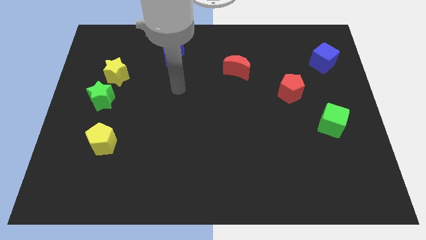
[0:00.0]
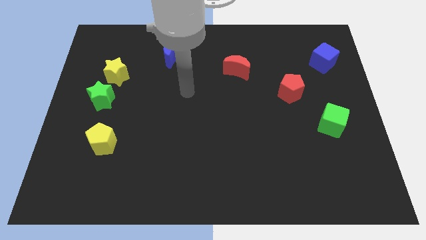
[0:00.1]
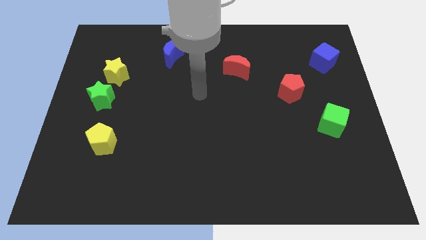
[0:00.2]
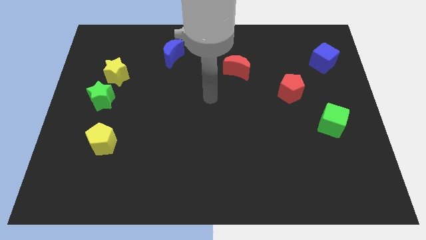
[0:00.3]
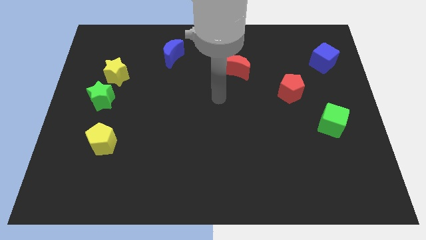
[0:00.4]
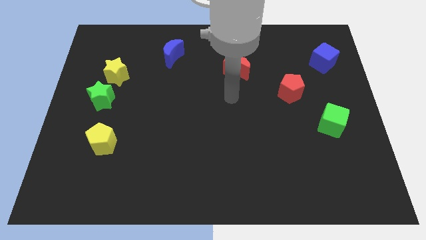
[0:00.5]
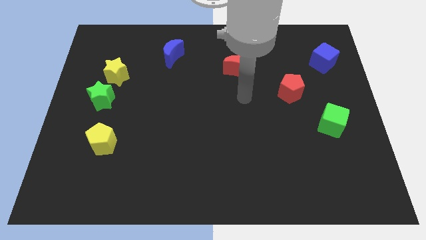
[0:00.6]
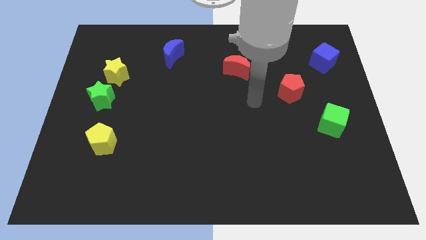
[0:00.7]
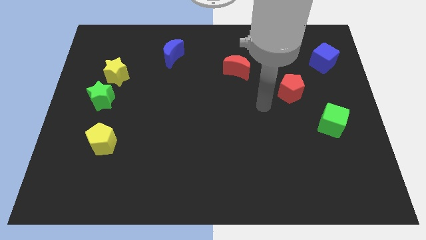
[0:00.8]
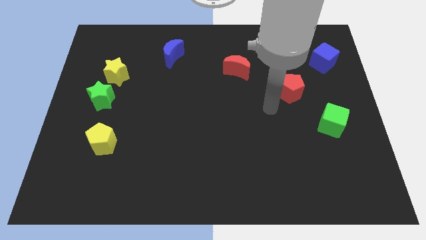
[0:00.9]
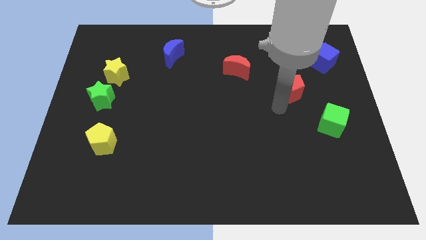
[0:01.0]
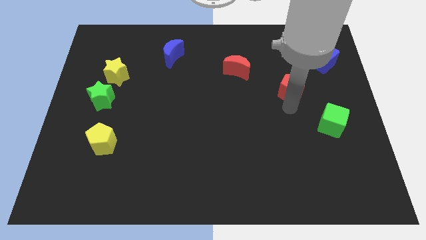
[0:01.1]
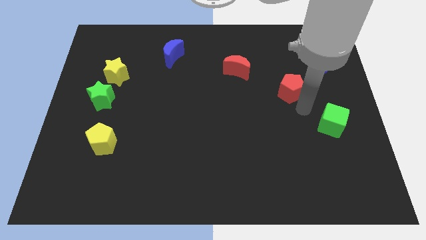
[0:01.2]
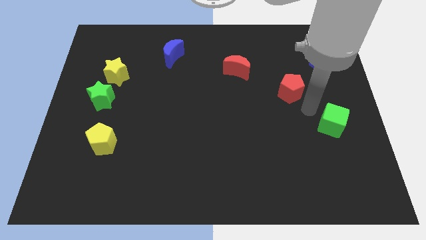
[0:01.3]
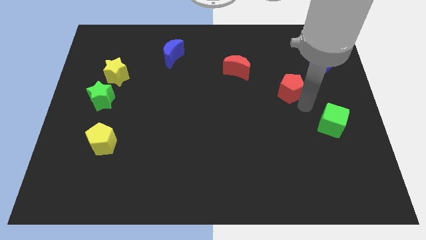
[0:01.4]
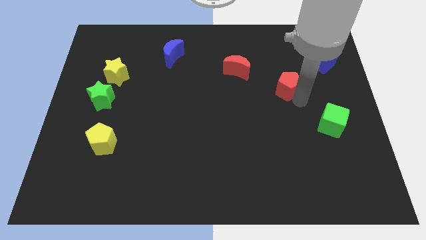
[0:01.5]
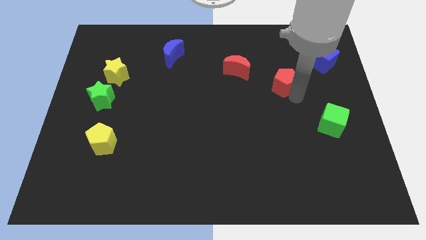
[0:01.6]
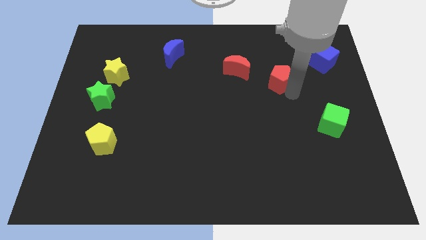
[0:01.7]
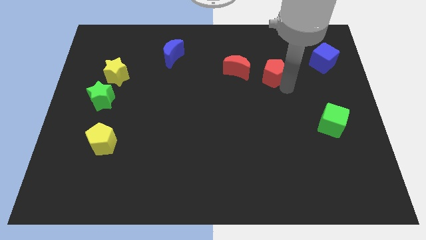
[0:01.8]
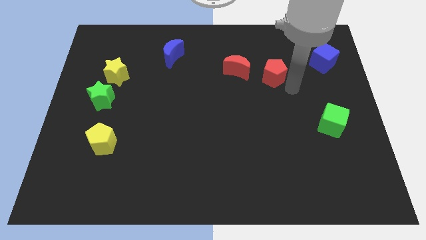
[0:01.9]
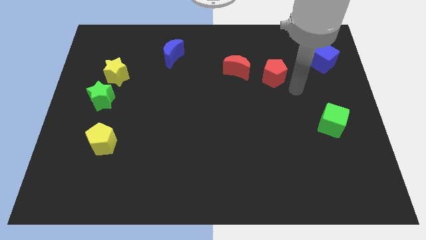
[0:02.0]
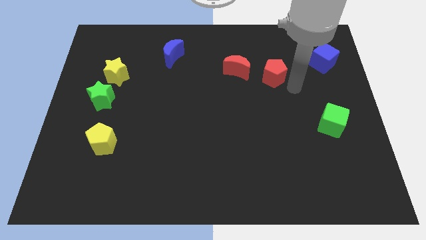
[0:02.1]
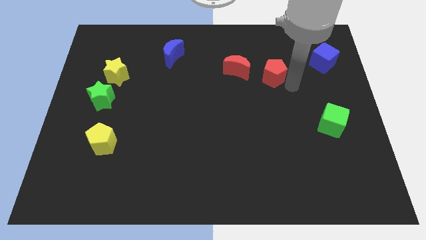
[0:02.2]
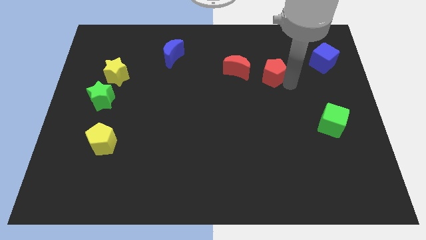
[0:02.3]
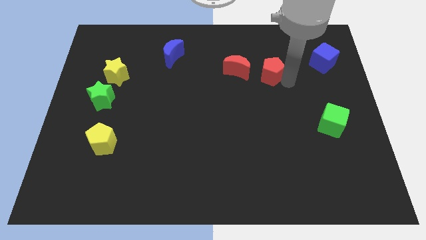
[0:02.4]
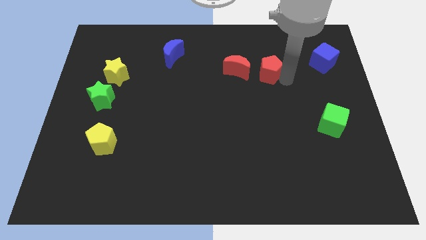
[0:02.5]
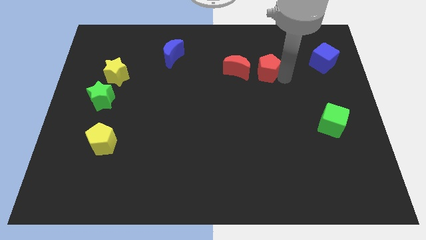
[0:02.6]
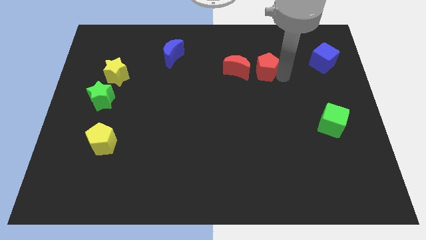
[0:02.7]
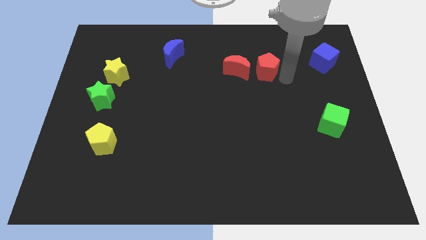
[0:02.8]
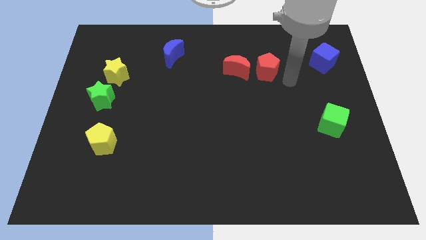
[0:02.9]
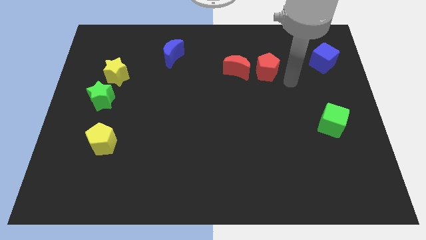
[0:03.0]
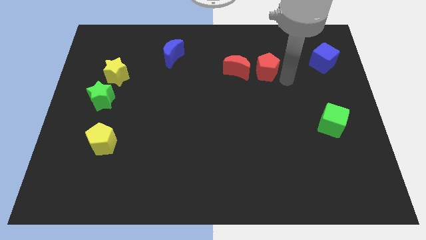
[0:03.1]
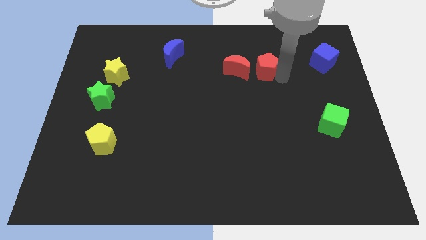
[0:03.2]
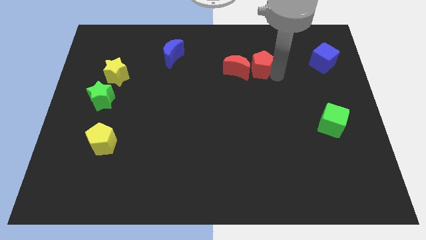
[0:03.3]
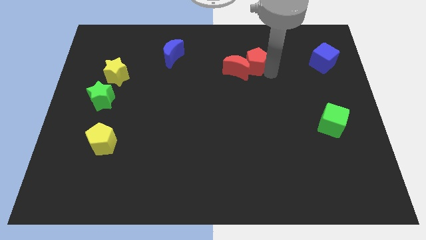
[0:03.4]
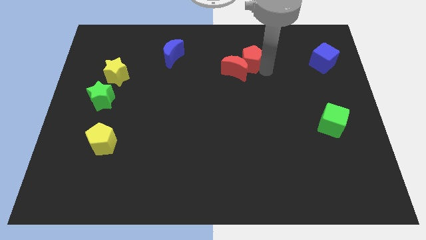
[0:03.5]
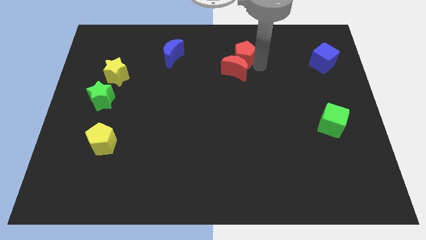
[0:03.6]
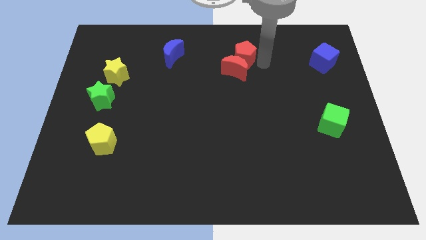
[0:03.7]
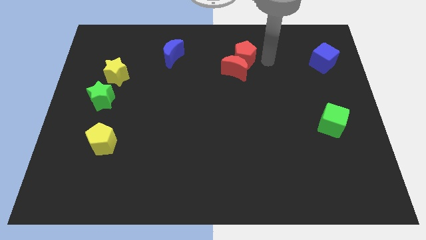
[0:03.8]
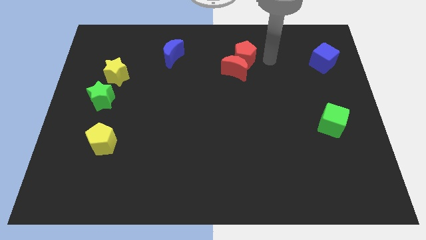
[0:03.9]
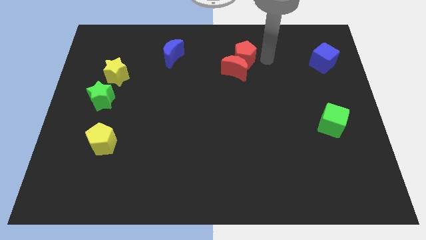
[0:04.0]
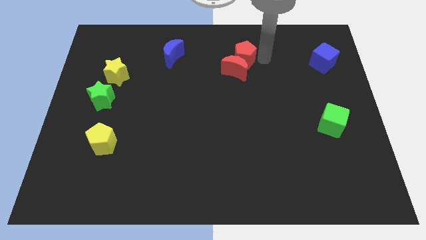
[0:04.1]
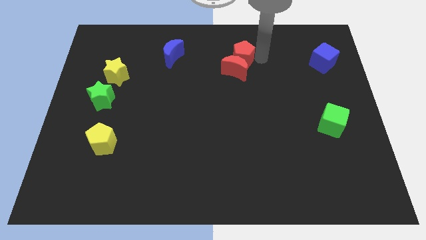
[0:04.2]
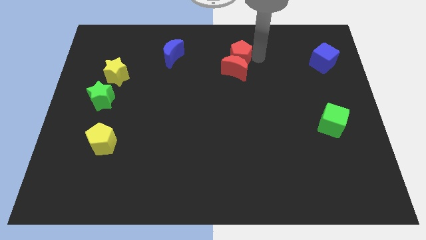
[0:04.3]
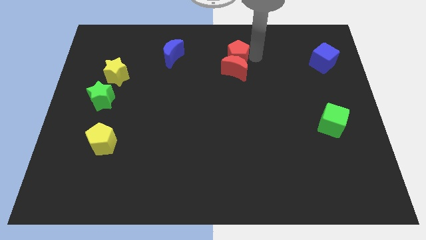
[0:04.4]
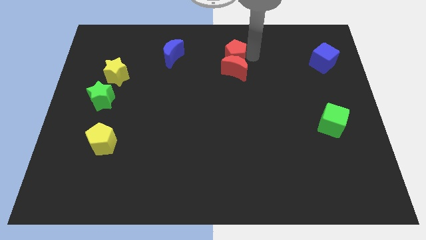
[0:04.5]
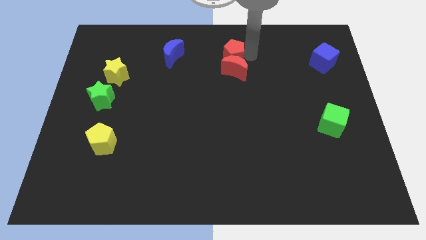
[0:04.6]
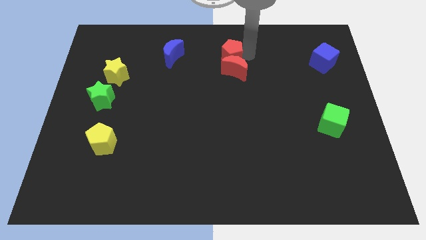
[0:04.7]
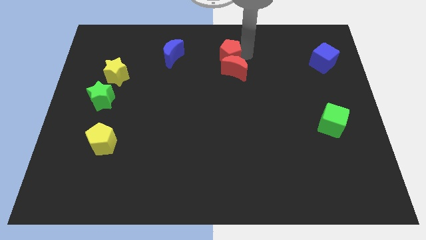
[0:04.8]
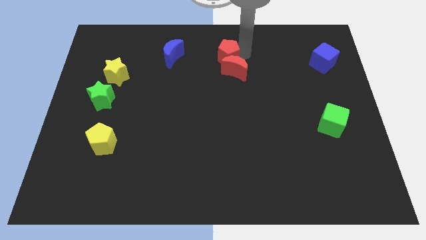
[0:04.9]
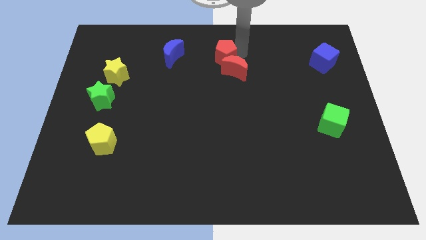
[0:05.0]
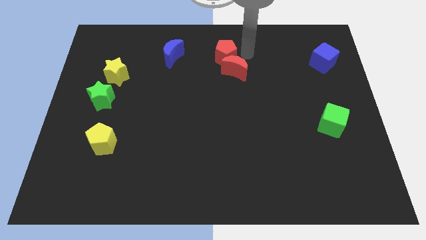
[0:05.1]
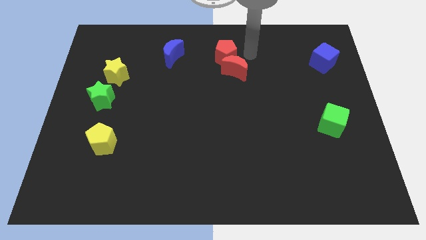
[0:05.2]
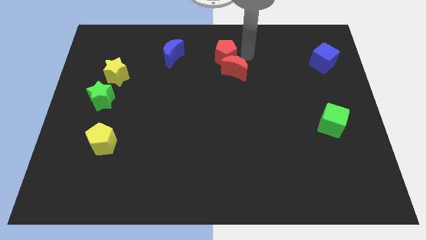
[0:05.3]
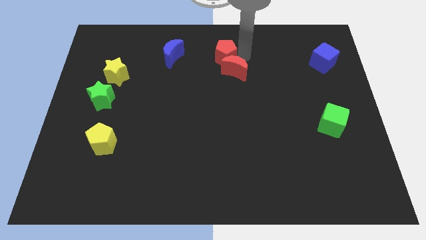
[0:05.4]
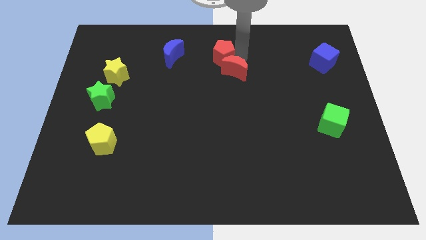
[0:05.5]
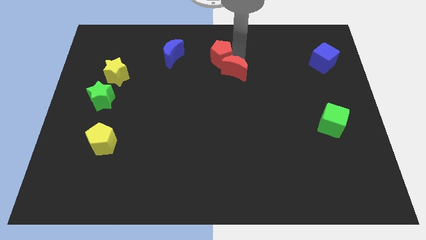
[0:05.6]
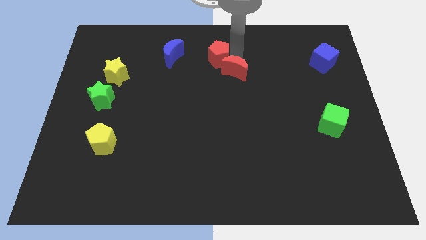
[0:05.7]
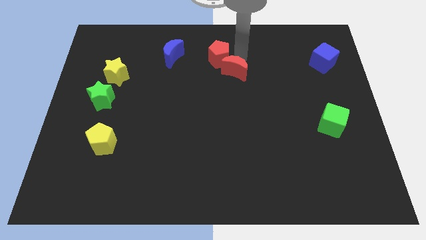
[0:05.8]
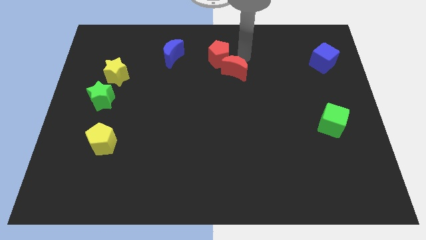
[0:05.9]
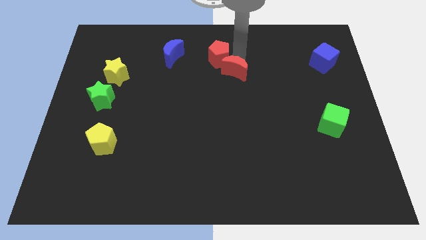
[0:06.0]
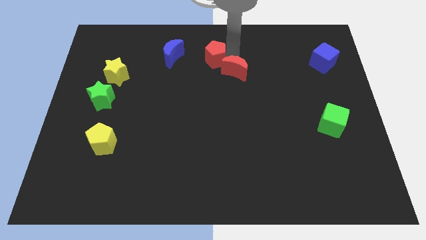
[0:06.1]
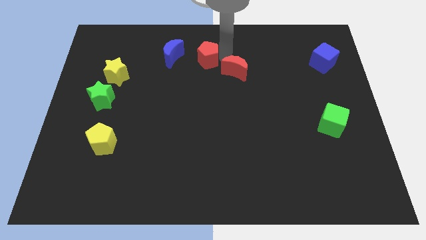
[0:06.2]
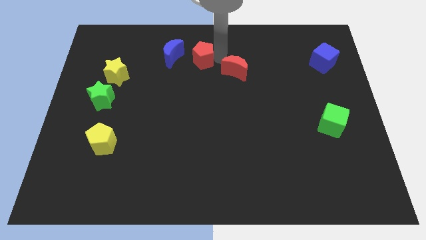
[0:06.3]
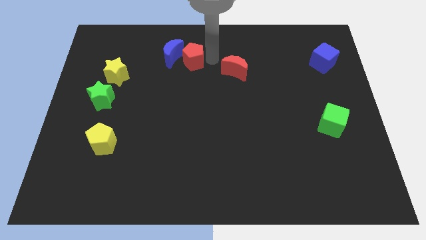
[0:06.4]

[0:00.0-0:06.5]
put the red pentagon towards the blue moon
